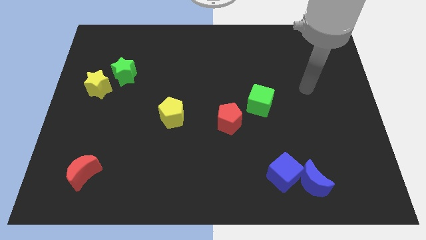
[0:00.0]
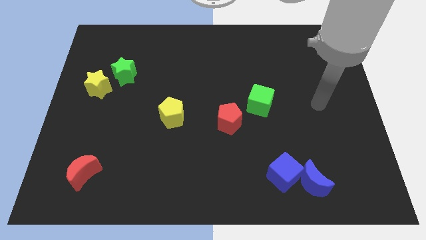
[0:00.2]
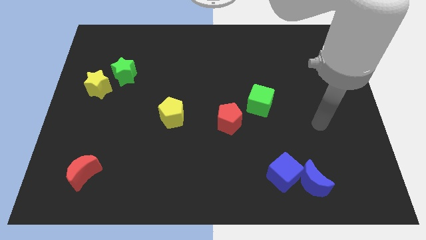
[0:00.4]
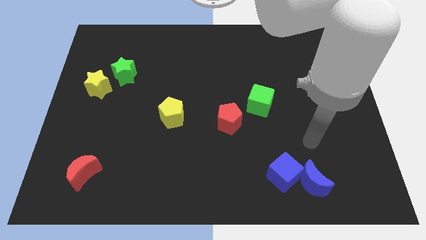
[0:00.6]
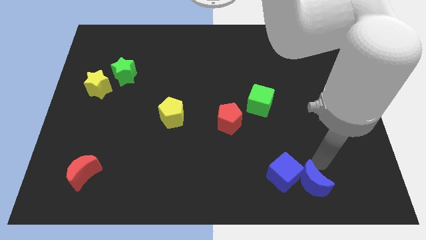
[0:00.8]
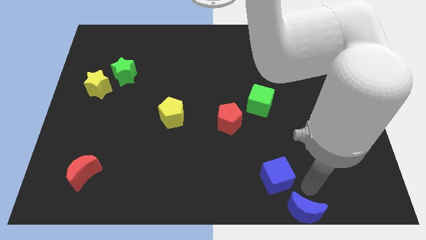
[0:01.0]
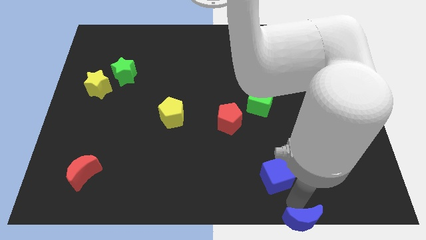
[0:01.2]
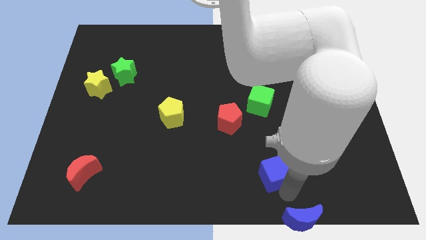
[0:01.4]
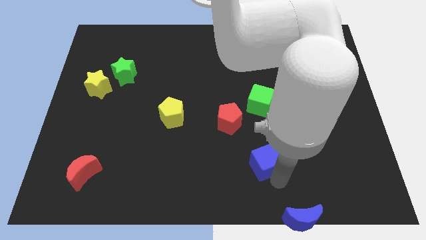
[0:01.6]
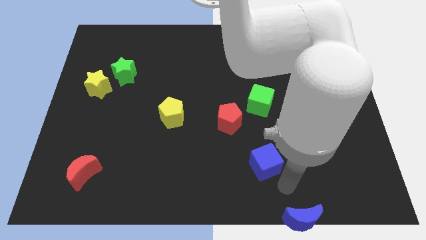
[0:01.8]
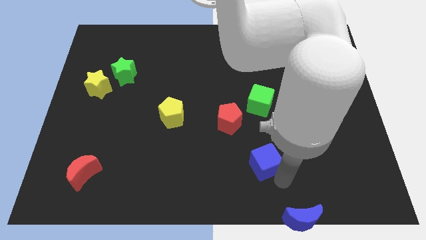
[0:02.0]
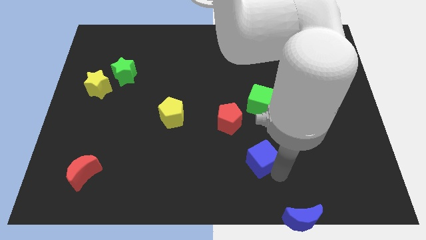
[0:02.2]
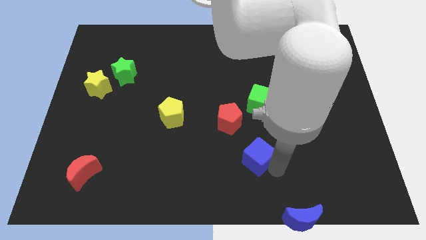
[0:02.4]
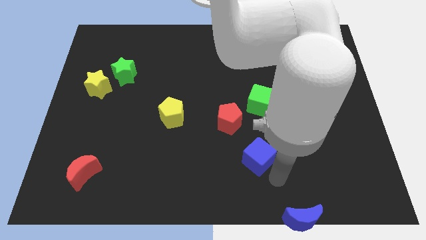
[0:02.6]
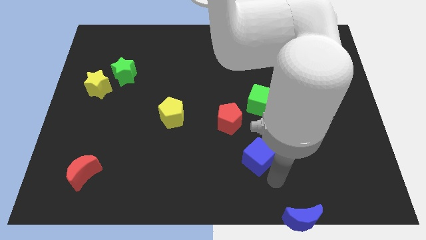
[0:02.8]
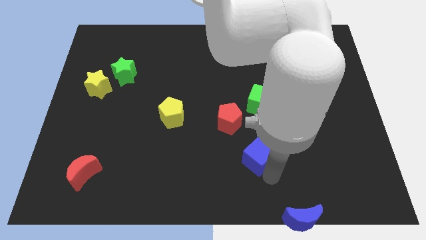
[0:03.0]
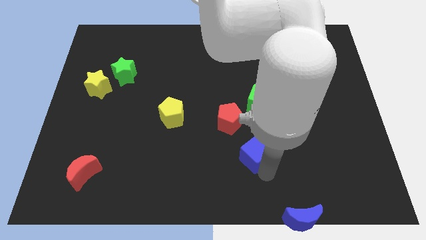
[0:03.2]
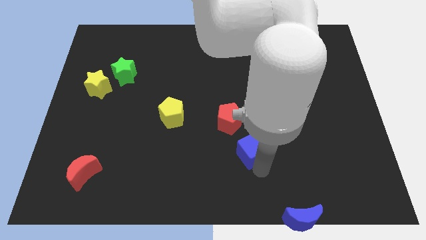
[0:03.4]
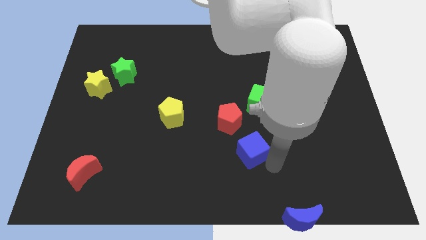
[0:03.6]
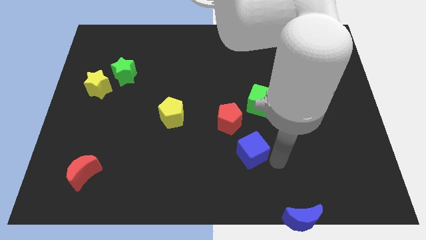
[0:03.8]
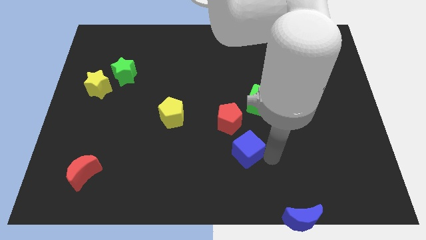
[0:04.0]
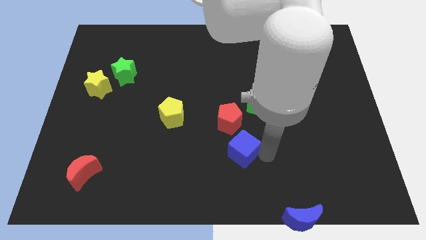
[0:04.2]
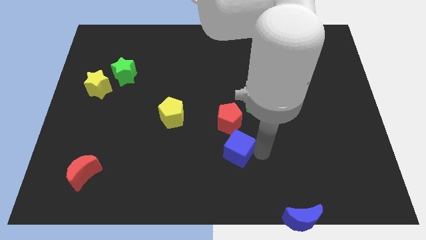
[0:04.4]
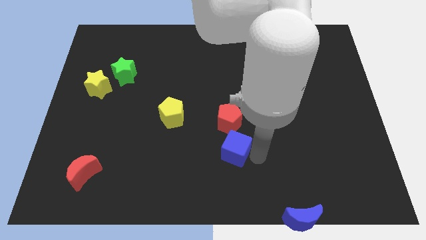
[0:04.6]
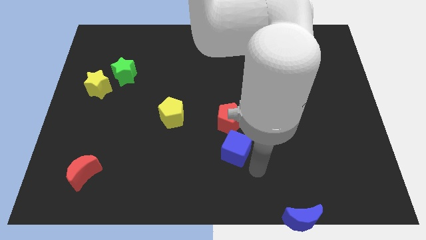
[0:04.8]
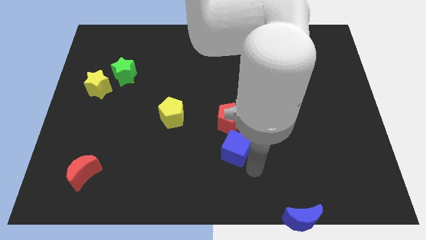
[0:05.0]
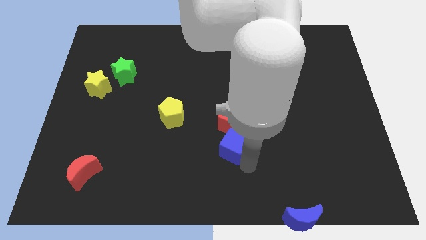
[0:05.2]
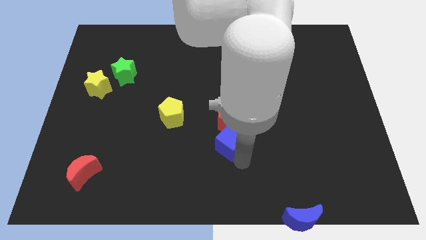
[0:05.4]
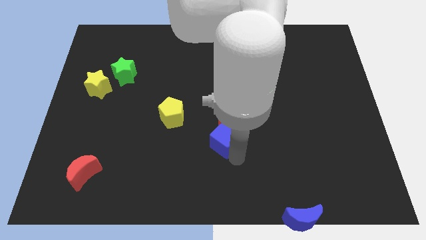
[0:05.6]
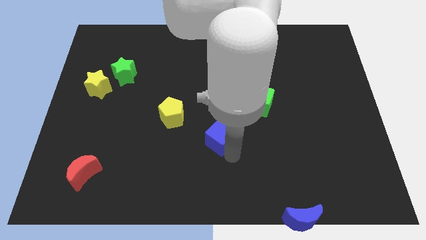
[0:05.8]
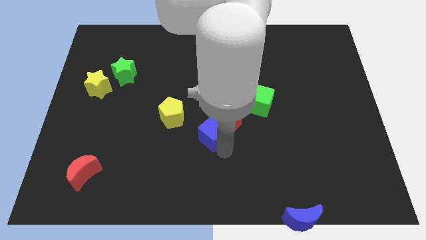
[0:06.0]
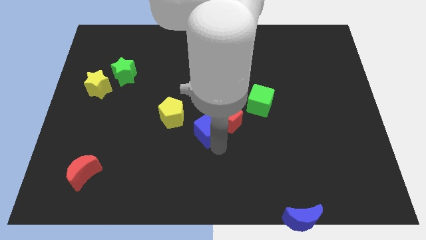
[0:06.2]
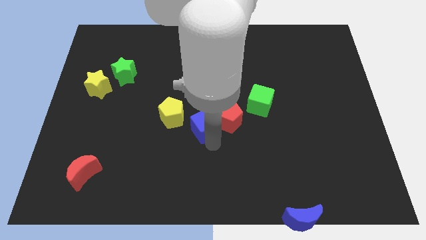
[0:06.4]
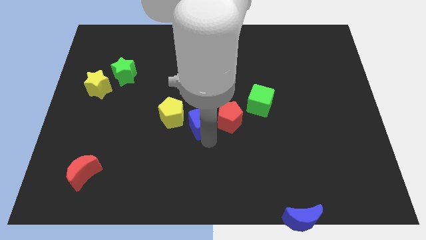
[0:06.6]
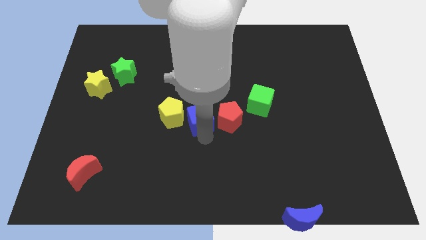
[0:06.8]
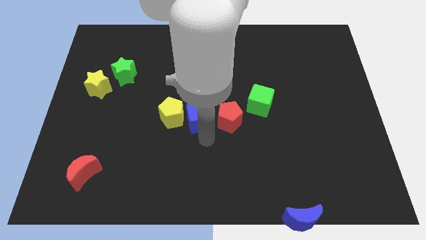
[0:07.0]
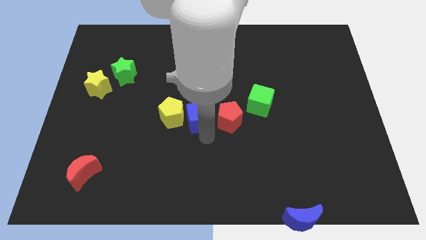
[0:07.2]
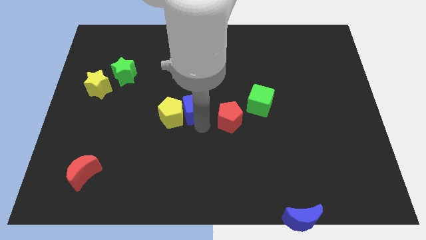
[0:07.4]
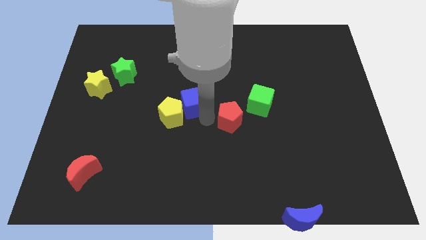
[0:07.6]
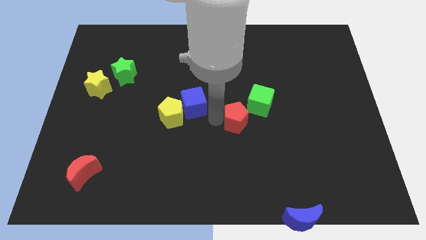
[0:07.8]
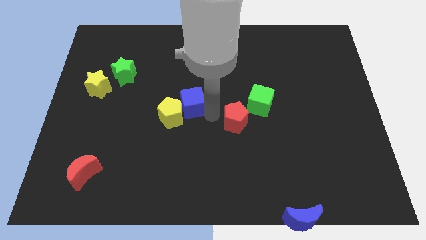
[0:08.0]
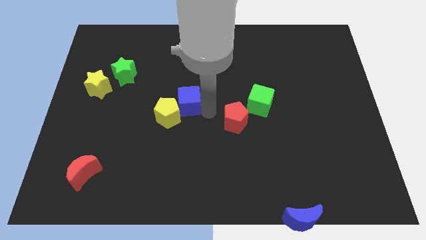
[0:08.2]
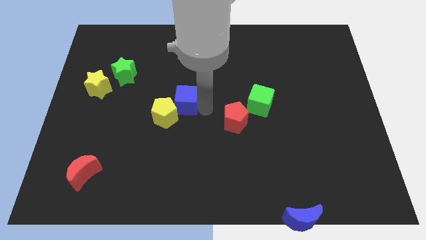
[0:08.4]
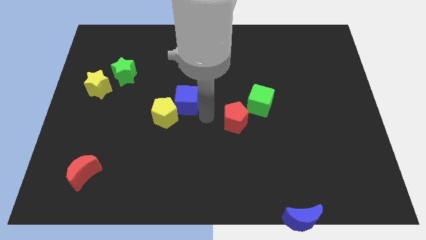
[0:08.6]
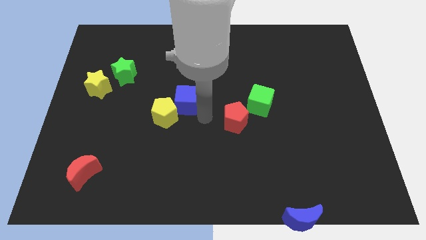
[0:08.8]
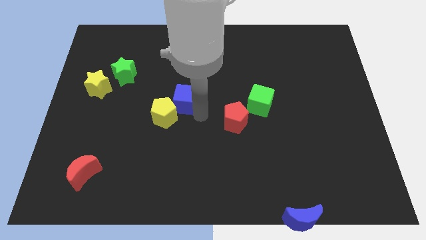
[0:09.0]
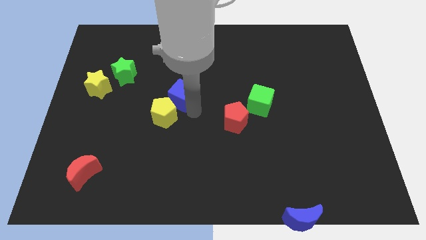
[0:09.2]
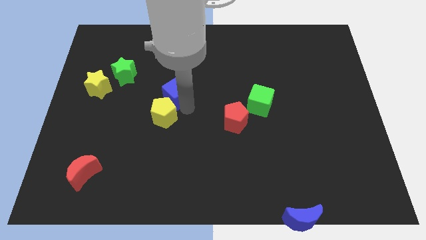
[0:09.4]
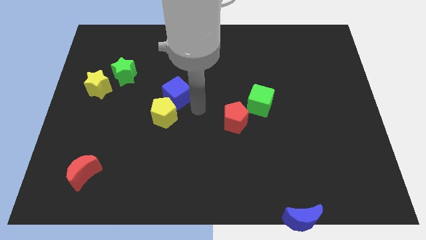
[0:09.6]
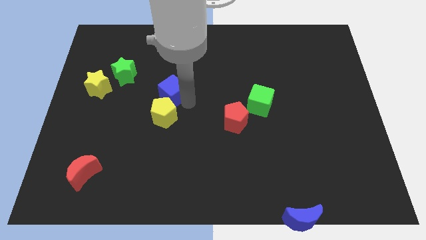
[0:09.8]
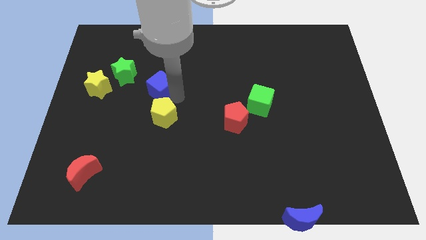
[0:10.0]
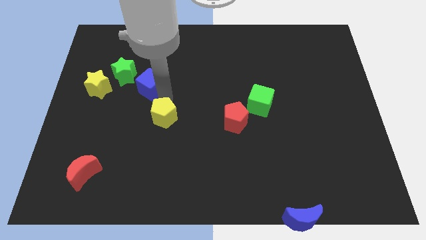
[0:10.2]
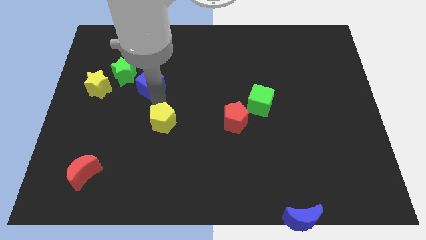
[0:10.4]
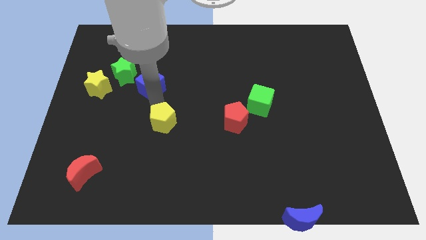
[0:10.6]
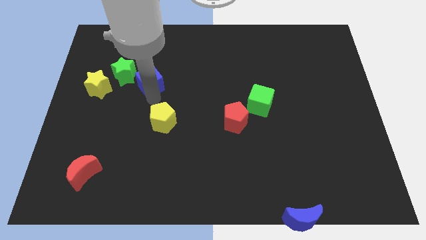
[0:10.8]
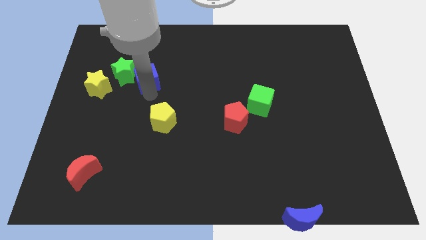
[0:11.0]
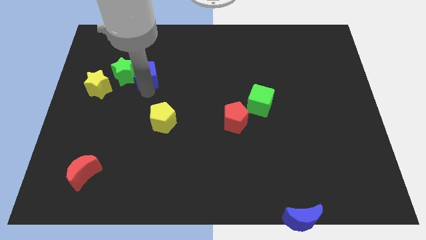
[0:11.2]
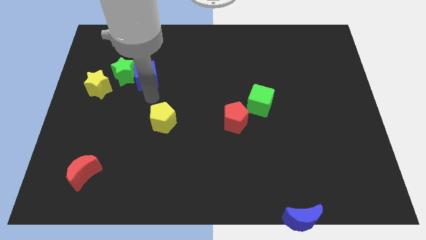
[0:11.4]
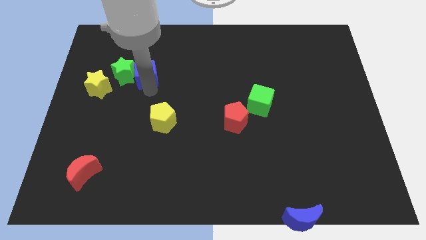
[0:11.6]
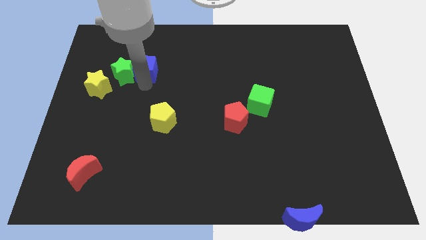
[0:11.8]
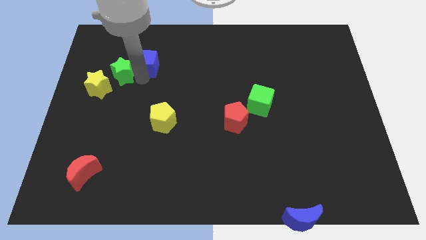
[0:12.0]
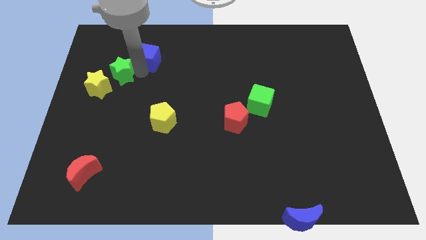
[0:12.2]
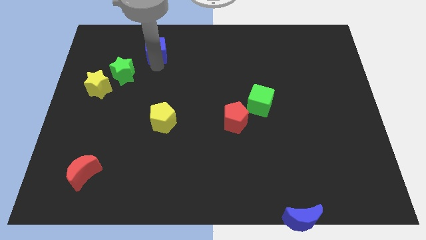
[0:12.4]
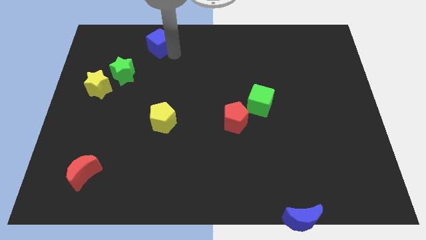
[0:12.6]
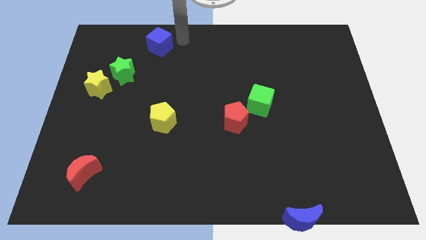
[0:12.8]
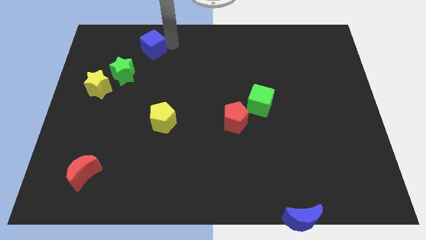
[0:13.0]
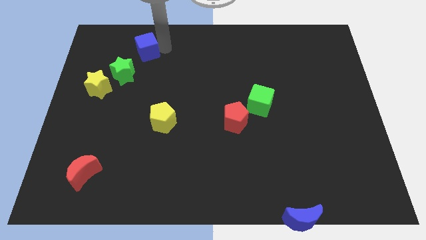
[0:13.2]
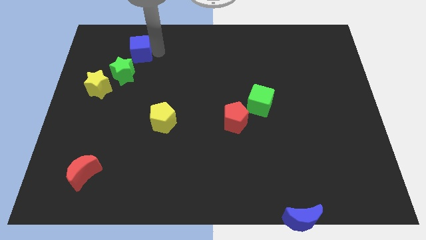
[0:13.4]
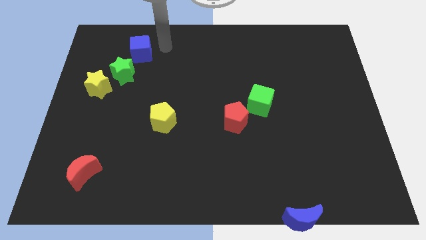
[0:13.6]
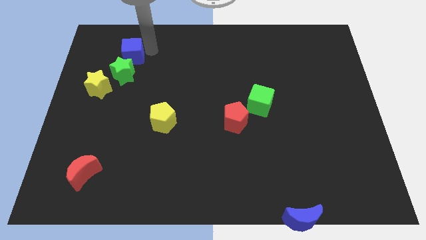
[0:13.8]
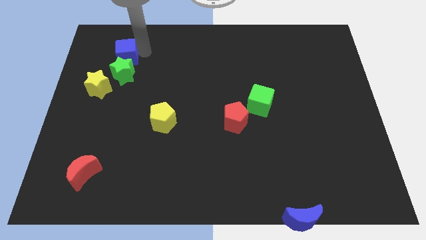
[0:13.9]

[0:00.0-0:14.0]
move the blue cube to the top left of the green star
